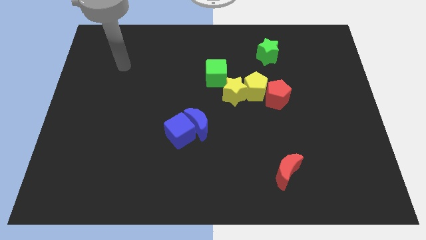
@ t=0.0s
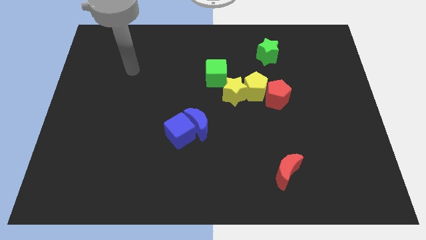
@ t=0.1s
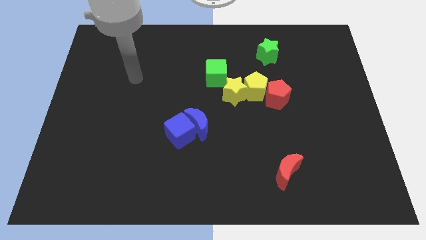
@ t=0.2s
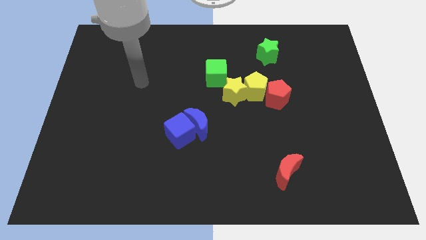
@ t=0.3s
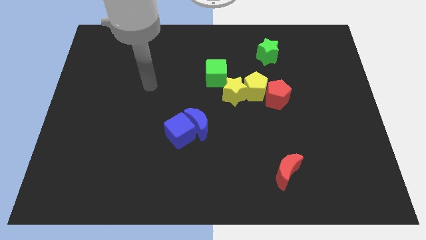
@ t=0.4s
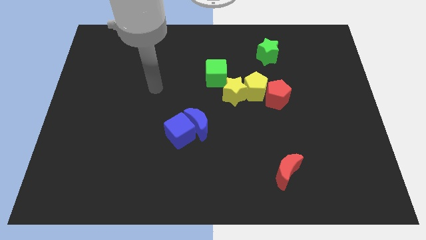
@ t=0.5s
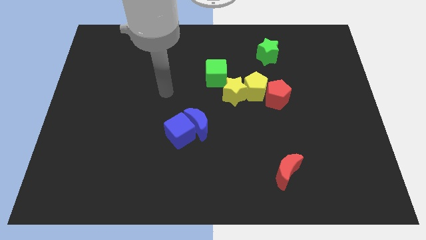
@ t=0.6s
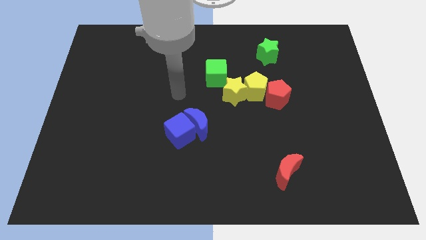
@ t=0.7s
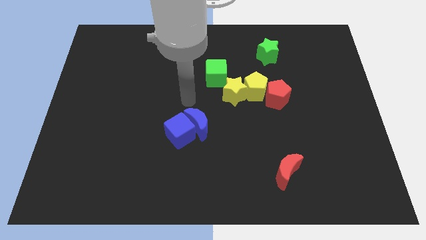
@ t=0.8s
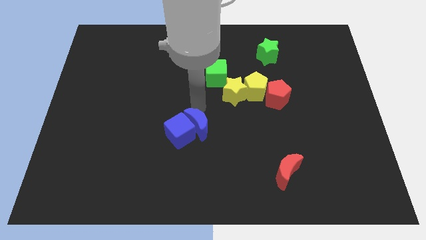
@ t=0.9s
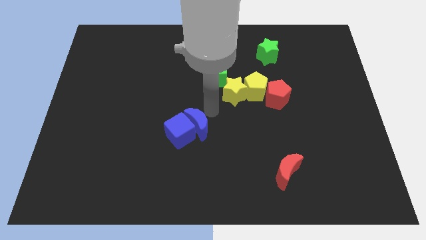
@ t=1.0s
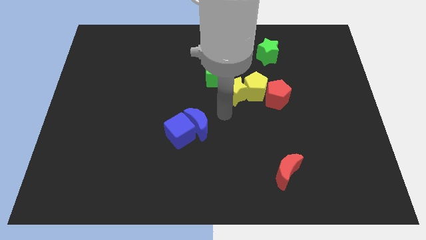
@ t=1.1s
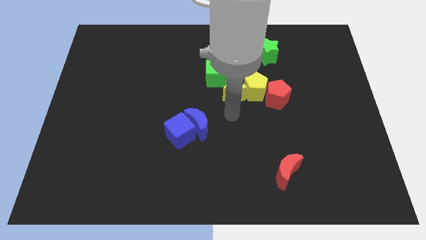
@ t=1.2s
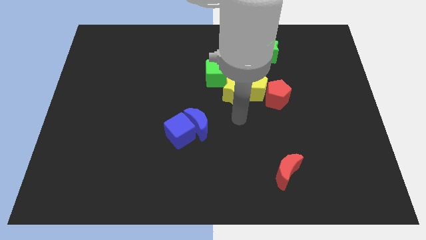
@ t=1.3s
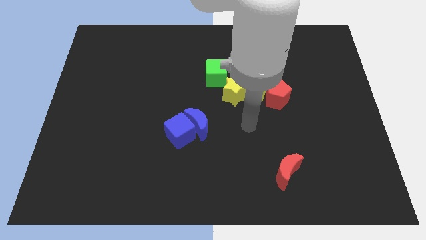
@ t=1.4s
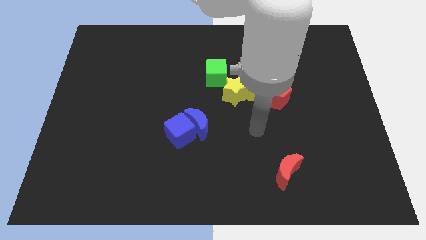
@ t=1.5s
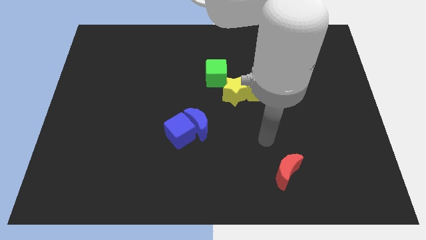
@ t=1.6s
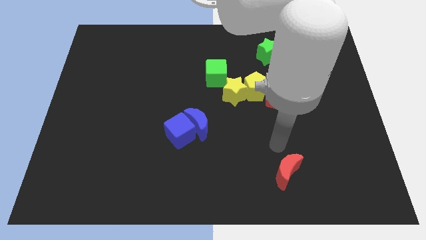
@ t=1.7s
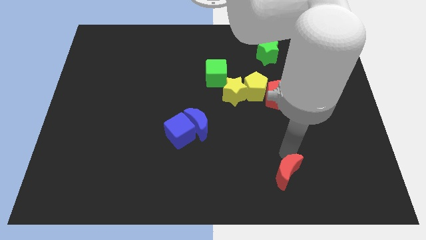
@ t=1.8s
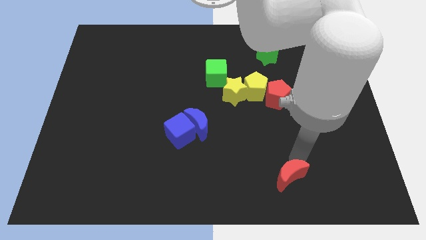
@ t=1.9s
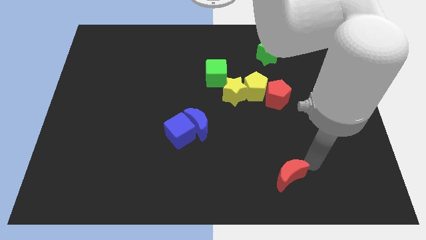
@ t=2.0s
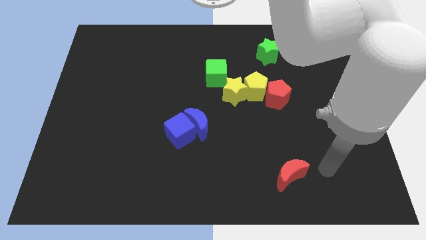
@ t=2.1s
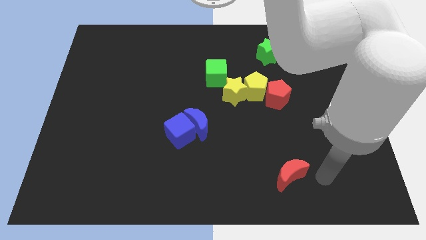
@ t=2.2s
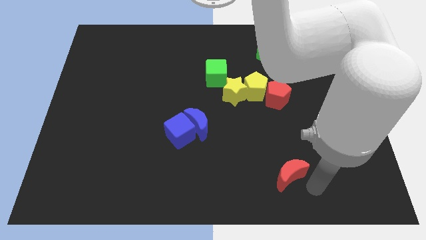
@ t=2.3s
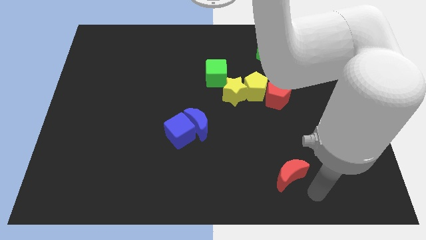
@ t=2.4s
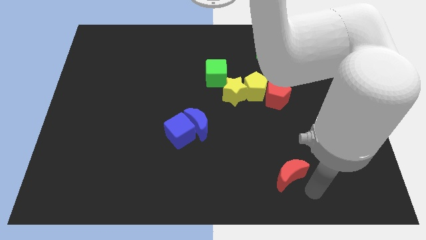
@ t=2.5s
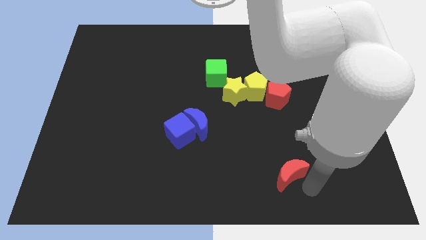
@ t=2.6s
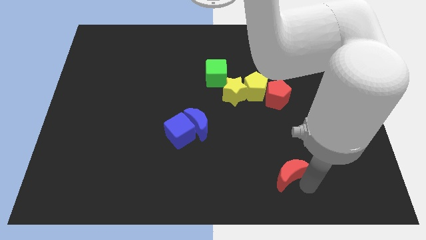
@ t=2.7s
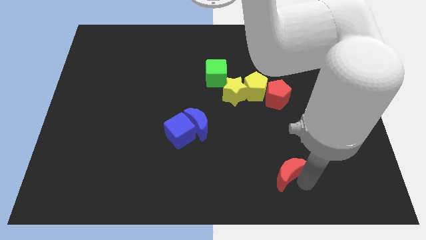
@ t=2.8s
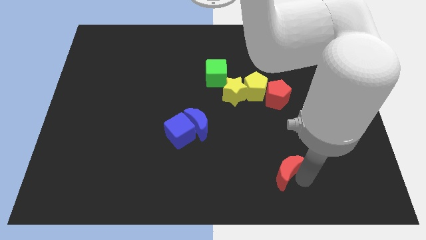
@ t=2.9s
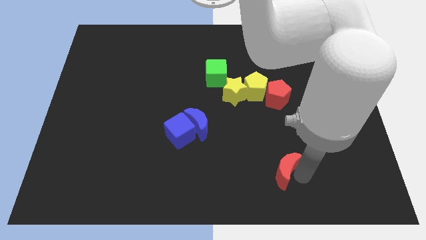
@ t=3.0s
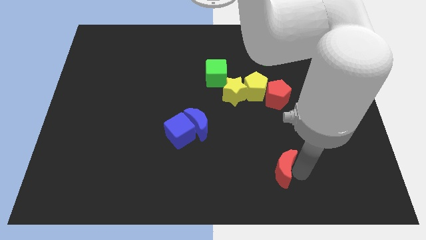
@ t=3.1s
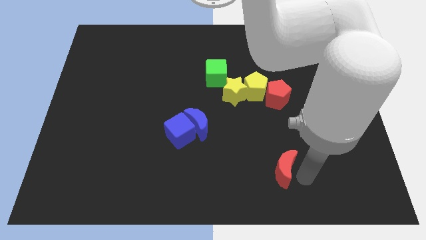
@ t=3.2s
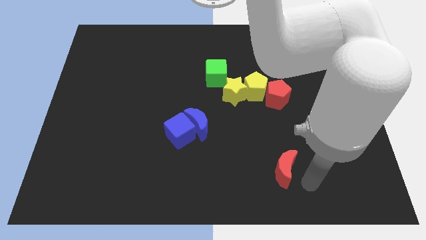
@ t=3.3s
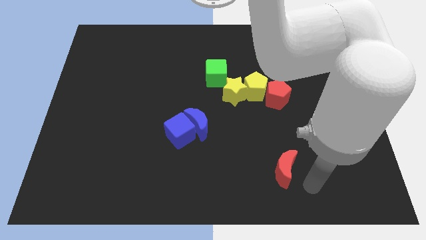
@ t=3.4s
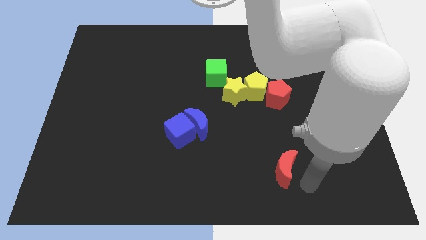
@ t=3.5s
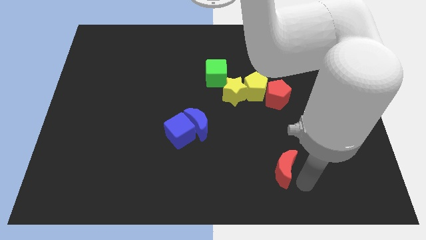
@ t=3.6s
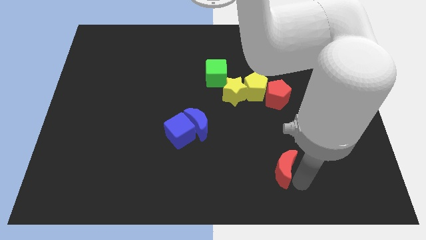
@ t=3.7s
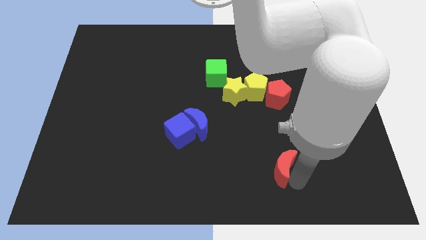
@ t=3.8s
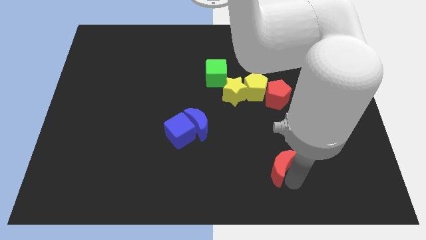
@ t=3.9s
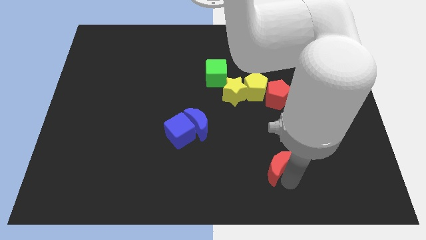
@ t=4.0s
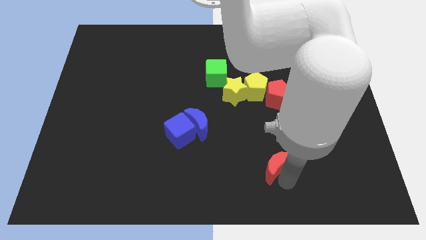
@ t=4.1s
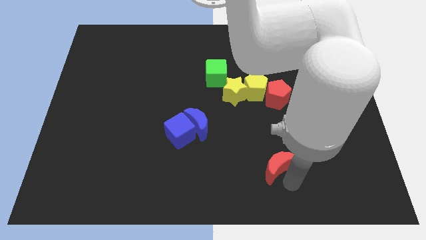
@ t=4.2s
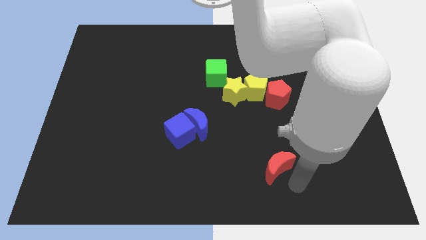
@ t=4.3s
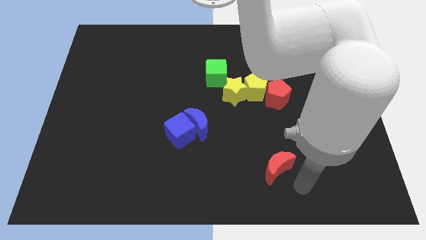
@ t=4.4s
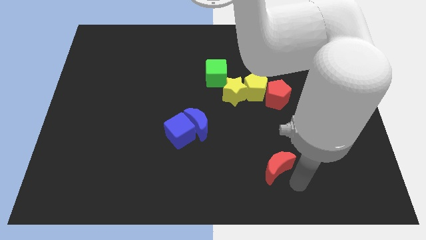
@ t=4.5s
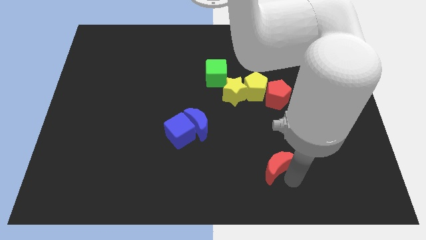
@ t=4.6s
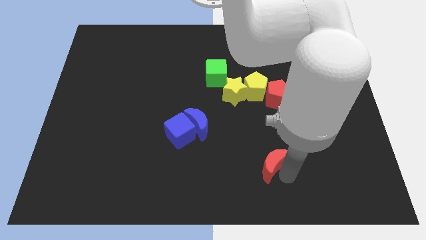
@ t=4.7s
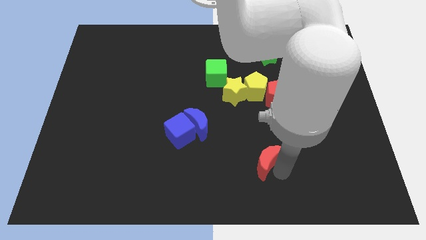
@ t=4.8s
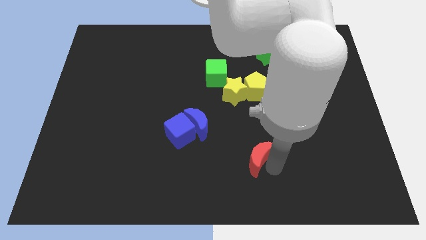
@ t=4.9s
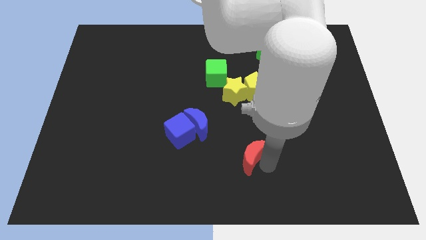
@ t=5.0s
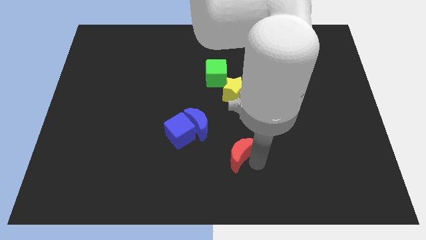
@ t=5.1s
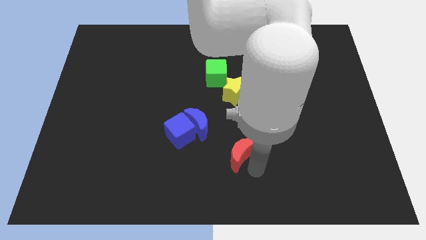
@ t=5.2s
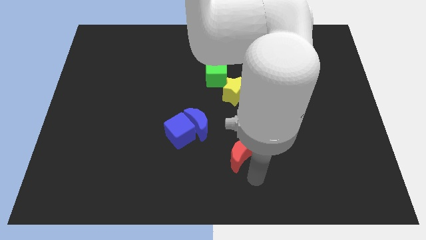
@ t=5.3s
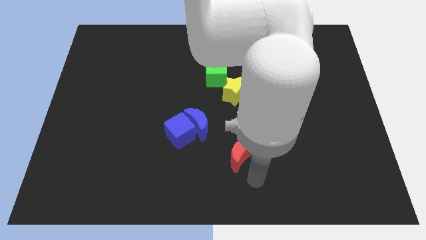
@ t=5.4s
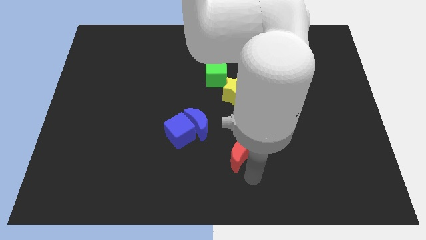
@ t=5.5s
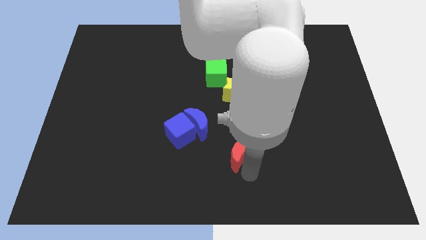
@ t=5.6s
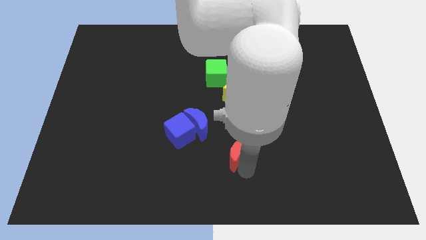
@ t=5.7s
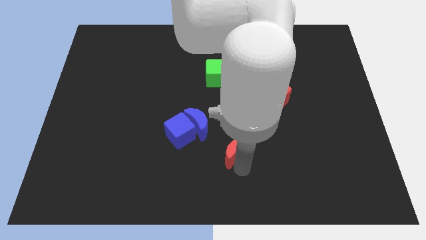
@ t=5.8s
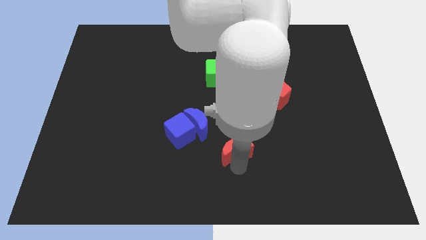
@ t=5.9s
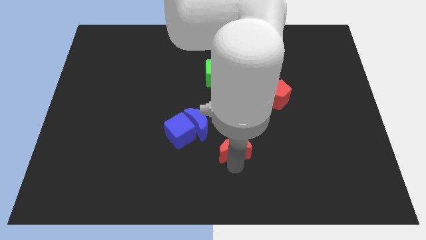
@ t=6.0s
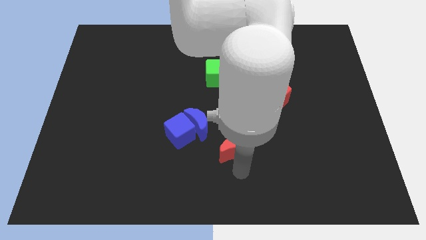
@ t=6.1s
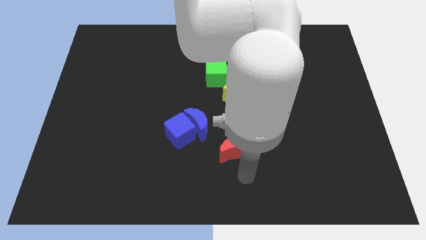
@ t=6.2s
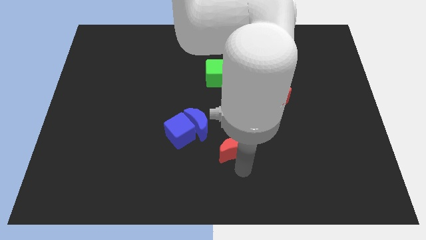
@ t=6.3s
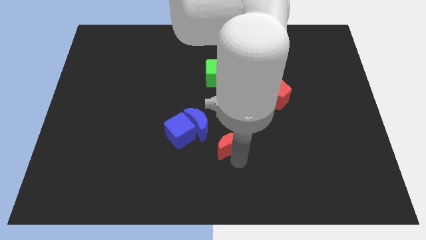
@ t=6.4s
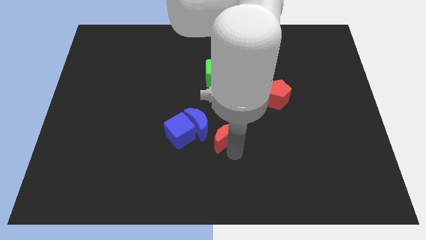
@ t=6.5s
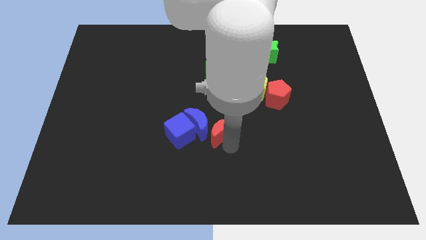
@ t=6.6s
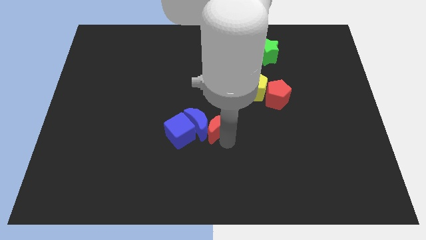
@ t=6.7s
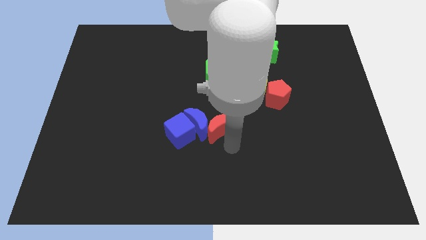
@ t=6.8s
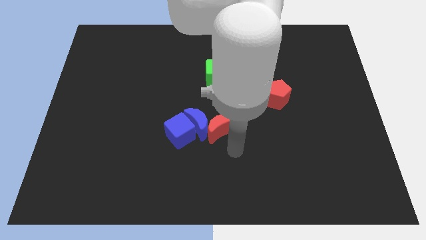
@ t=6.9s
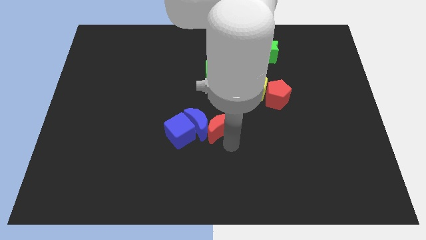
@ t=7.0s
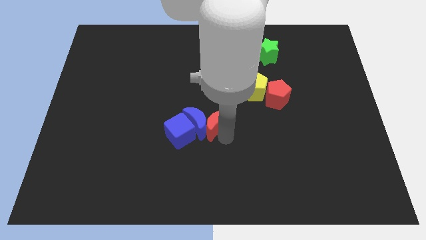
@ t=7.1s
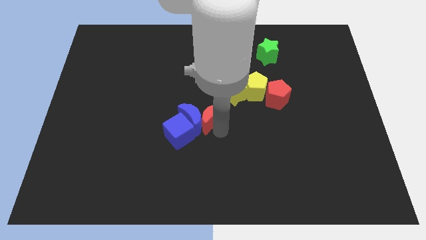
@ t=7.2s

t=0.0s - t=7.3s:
move the red moon upwards and then to the left

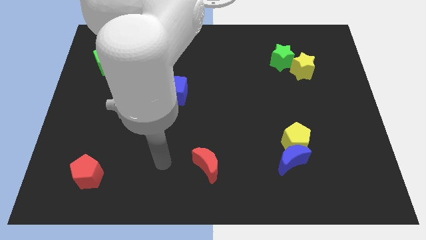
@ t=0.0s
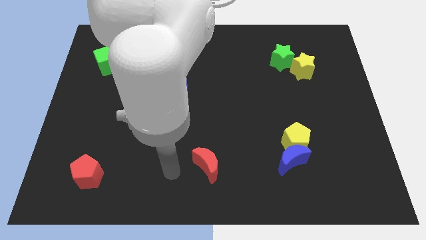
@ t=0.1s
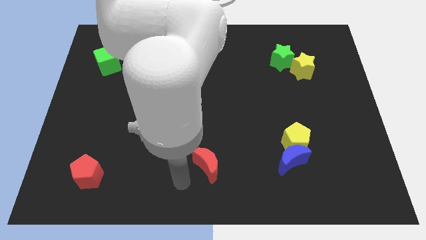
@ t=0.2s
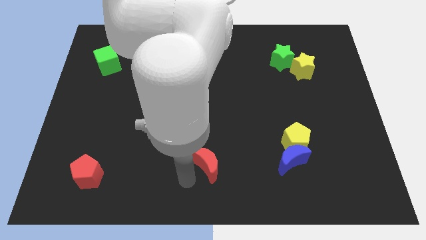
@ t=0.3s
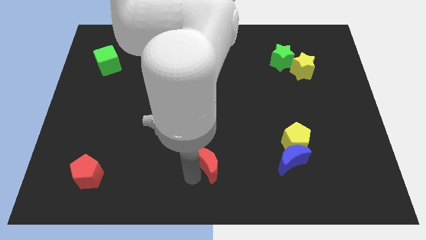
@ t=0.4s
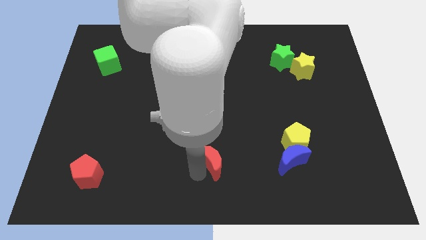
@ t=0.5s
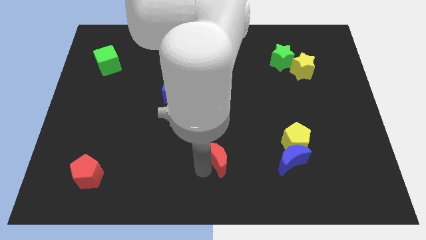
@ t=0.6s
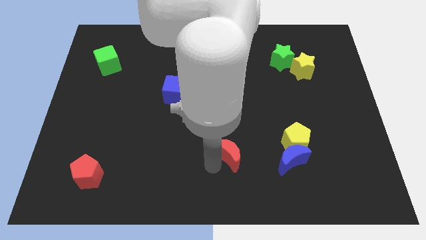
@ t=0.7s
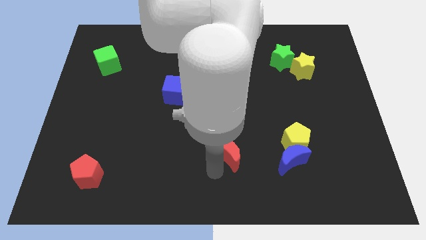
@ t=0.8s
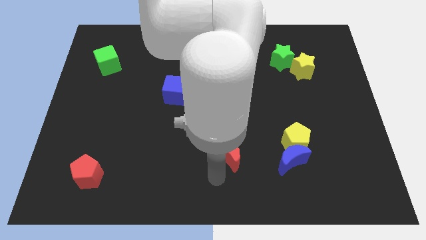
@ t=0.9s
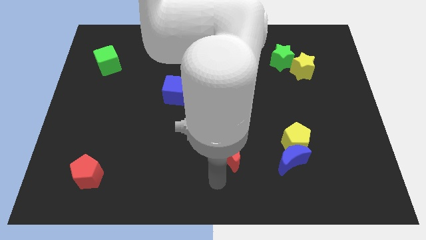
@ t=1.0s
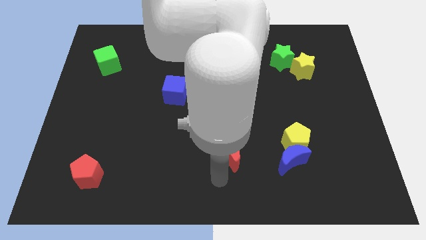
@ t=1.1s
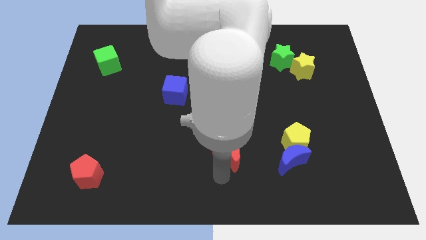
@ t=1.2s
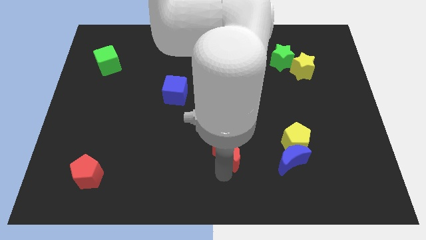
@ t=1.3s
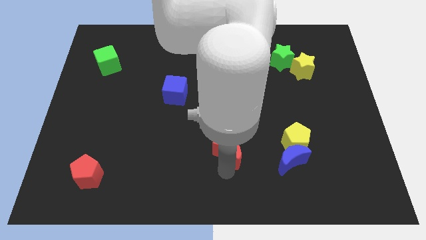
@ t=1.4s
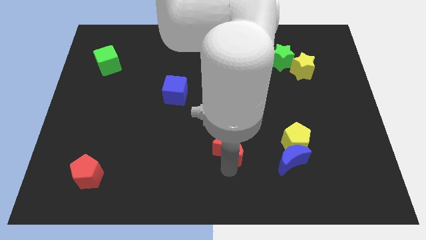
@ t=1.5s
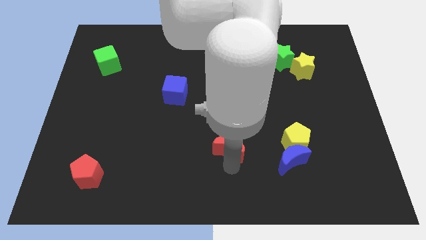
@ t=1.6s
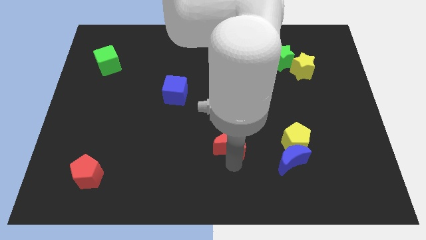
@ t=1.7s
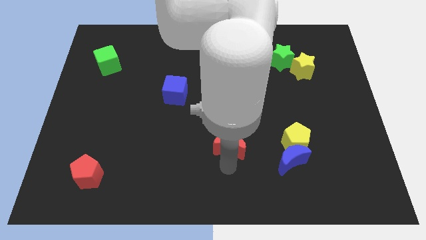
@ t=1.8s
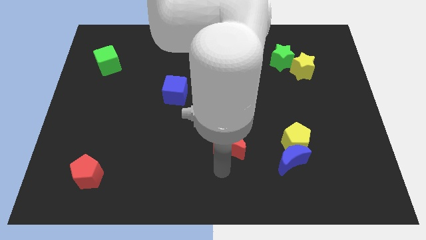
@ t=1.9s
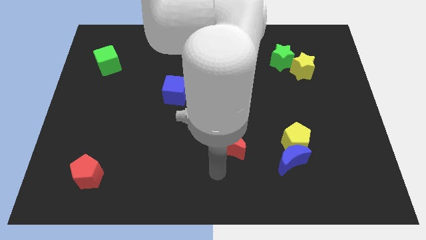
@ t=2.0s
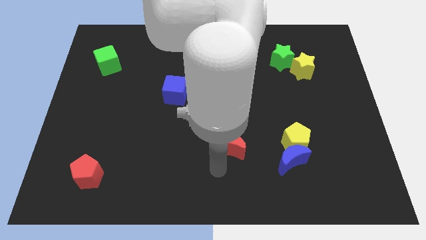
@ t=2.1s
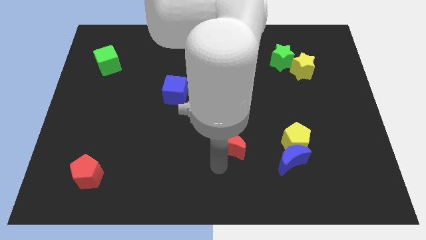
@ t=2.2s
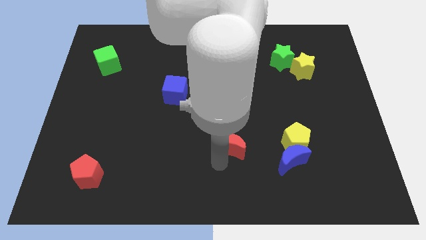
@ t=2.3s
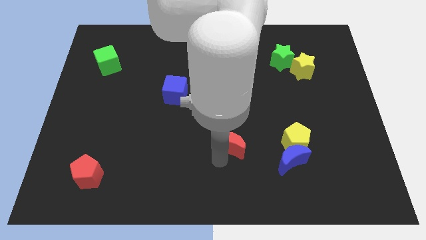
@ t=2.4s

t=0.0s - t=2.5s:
slightly move the red moon up and then to the right
